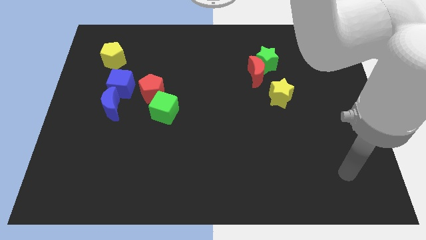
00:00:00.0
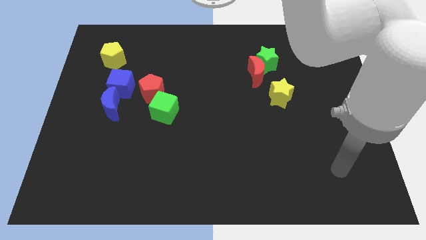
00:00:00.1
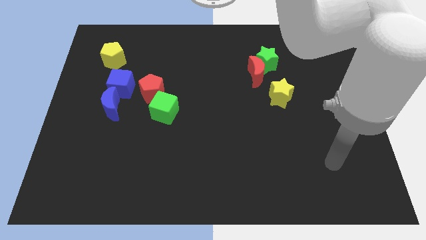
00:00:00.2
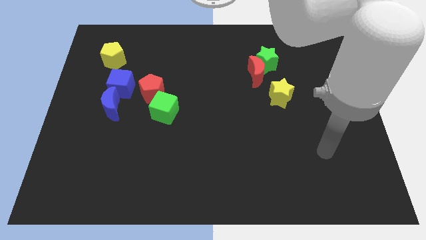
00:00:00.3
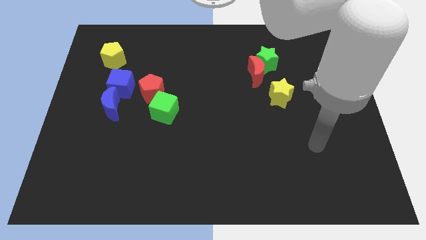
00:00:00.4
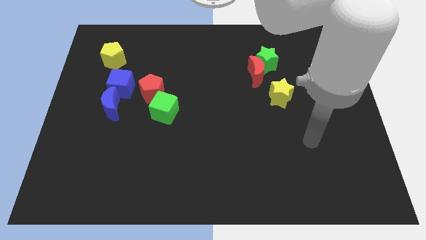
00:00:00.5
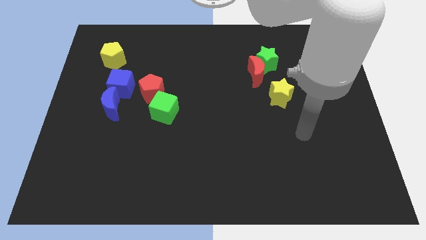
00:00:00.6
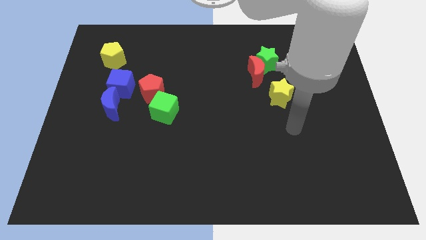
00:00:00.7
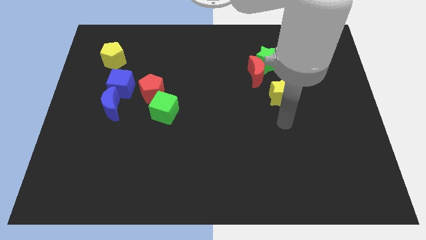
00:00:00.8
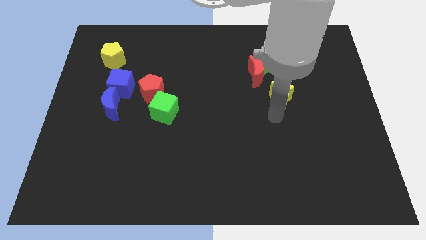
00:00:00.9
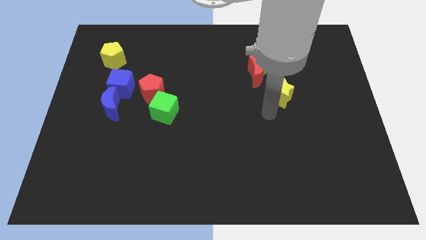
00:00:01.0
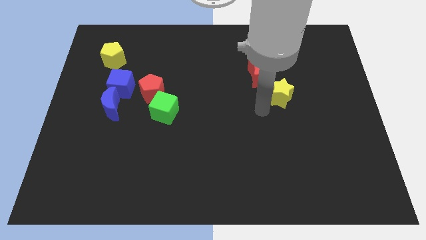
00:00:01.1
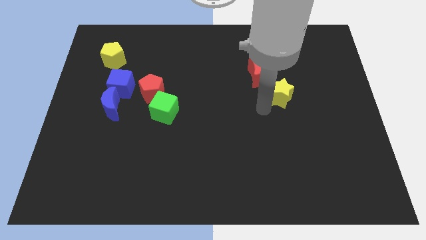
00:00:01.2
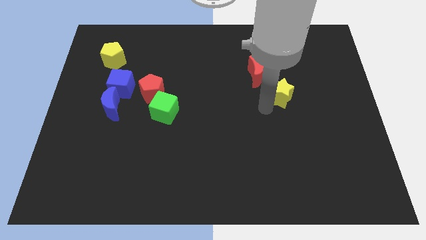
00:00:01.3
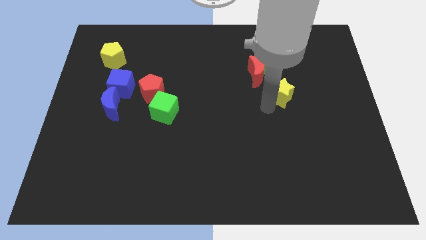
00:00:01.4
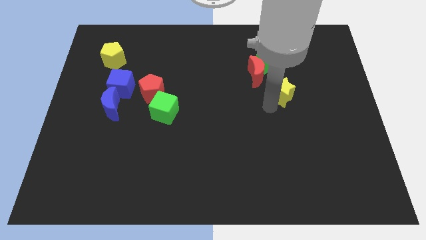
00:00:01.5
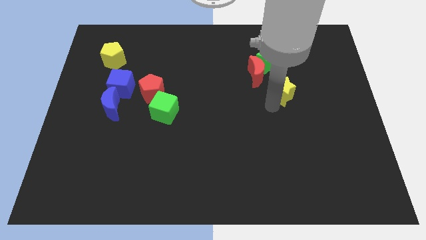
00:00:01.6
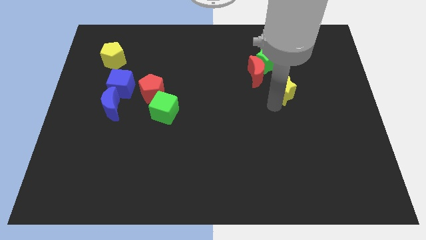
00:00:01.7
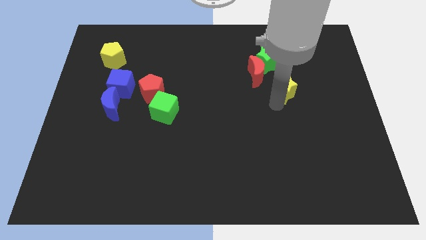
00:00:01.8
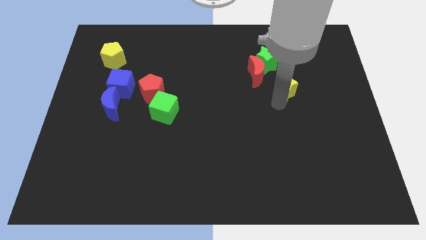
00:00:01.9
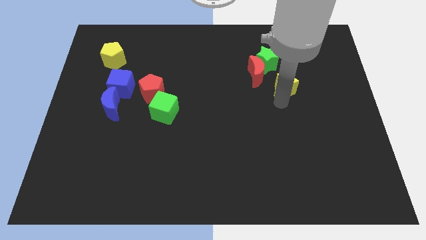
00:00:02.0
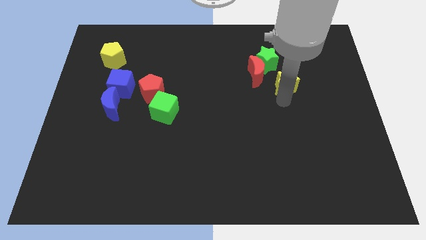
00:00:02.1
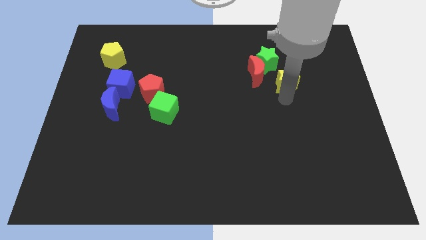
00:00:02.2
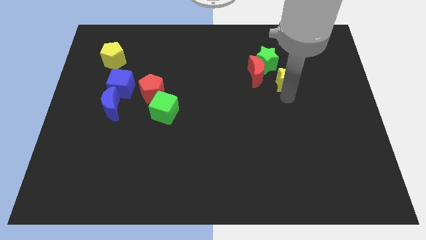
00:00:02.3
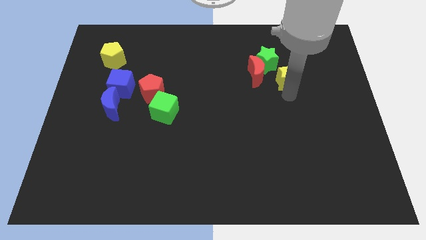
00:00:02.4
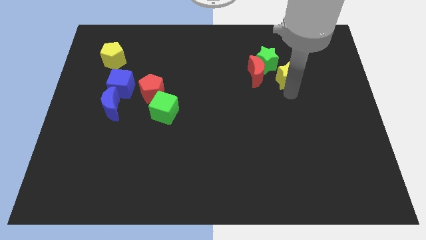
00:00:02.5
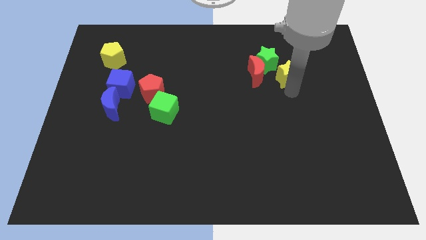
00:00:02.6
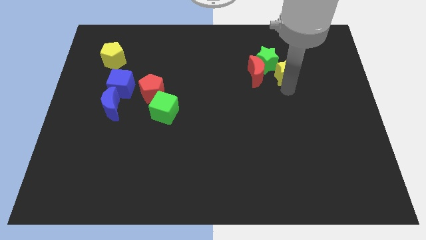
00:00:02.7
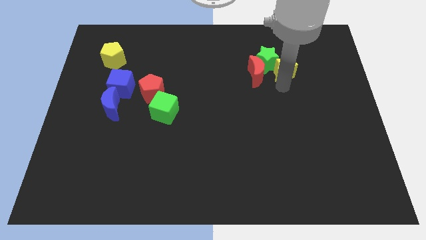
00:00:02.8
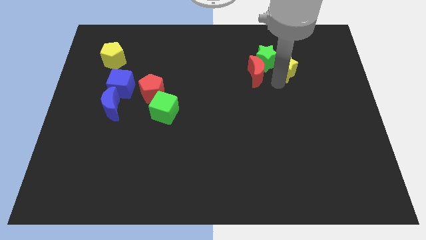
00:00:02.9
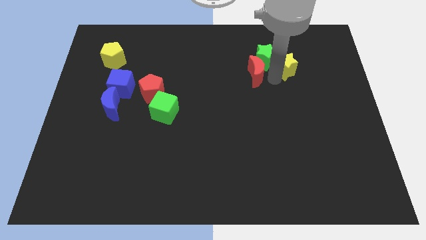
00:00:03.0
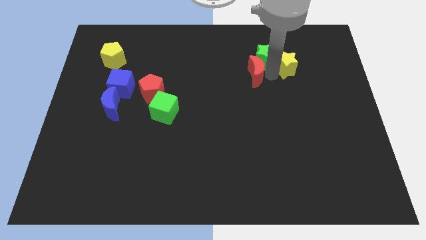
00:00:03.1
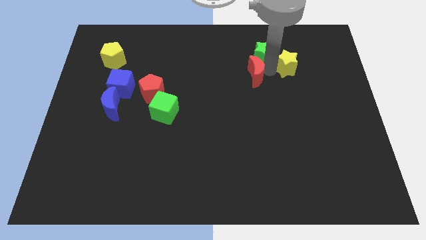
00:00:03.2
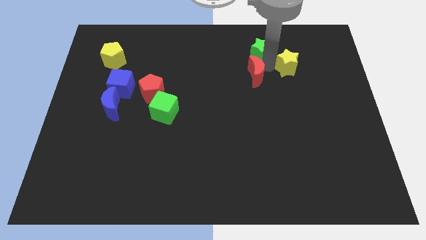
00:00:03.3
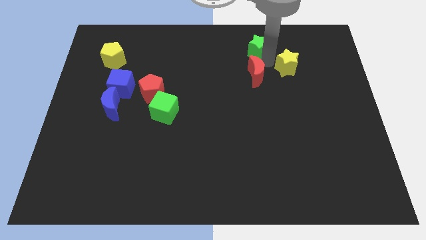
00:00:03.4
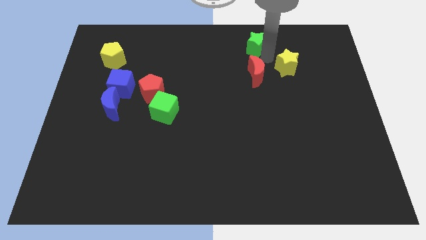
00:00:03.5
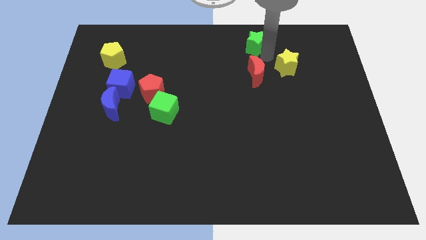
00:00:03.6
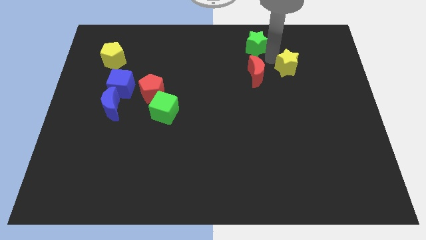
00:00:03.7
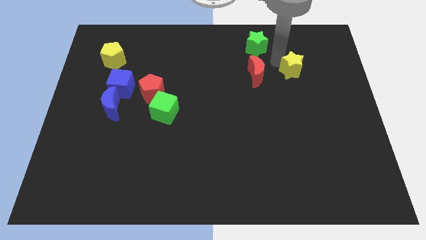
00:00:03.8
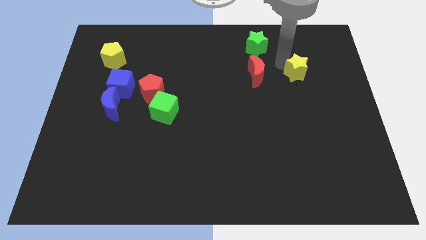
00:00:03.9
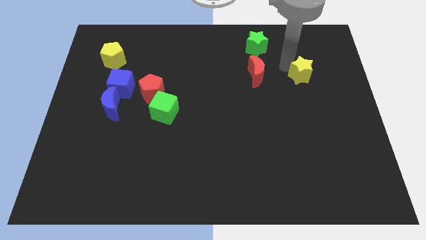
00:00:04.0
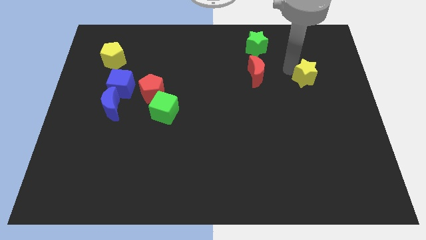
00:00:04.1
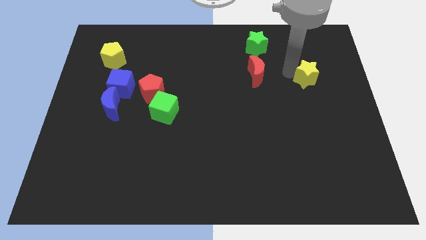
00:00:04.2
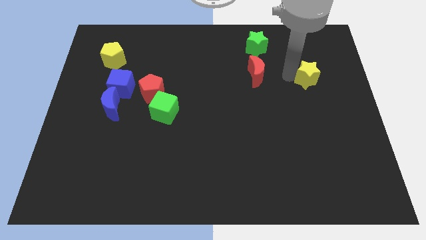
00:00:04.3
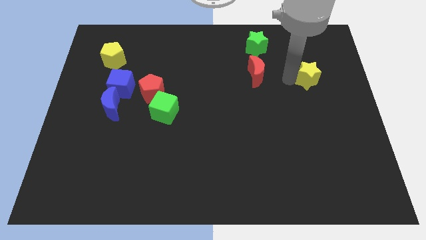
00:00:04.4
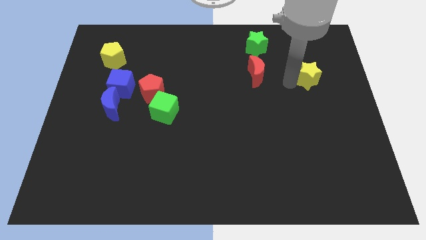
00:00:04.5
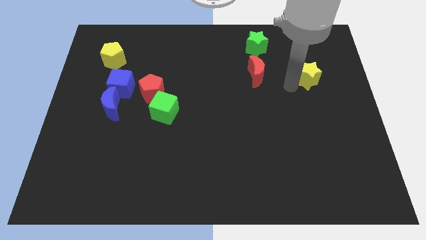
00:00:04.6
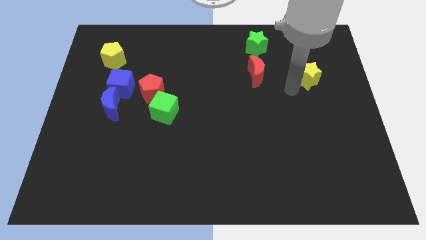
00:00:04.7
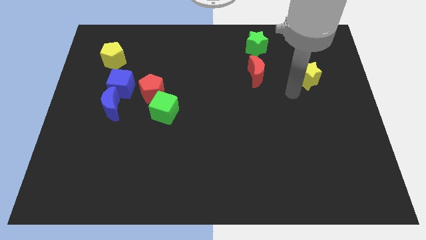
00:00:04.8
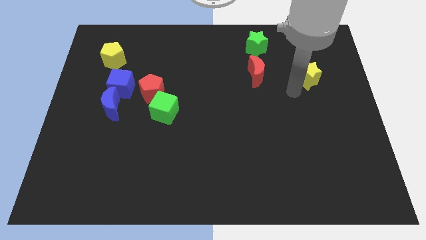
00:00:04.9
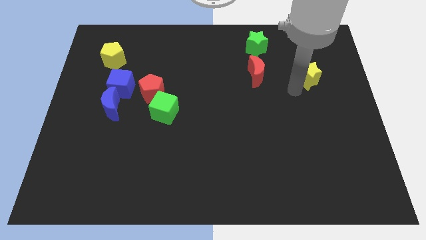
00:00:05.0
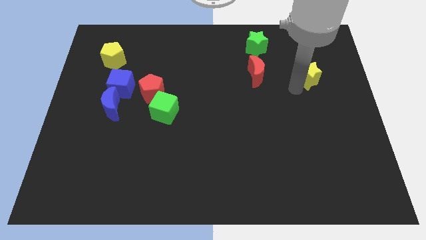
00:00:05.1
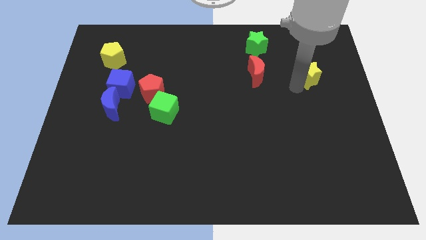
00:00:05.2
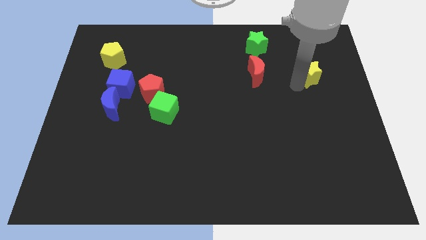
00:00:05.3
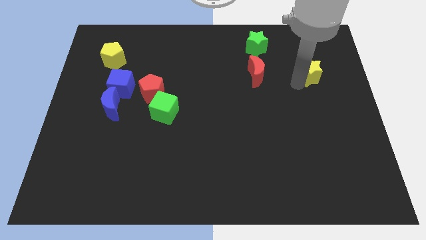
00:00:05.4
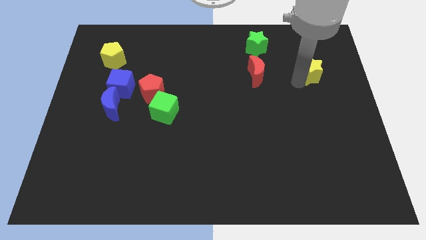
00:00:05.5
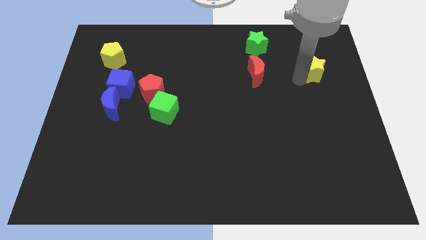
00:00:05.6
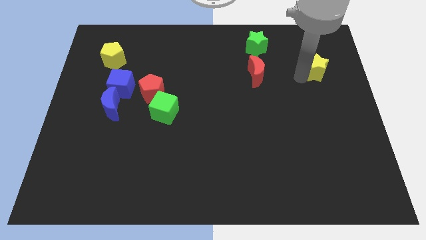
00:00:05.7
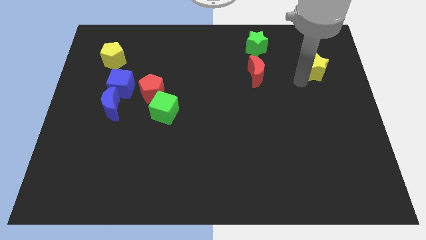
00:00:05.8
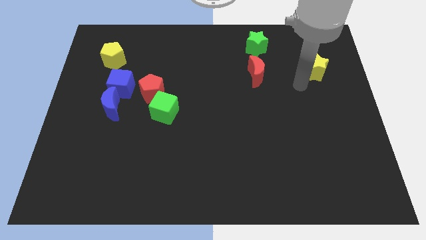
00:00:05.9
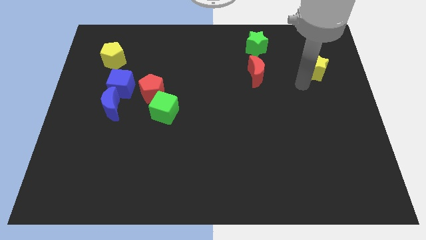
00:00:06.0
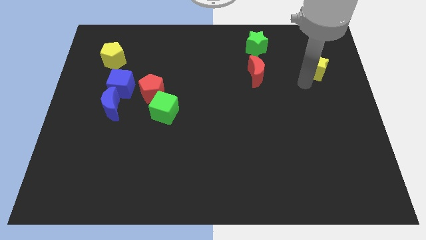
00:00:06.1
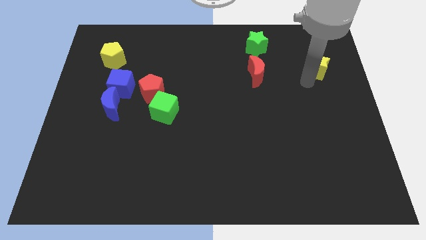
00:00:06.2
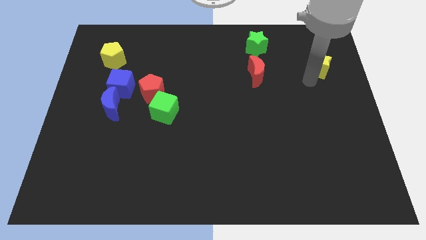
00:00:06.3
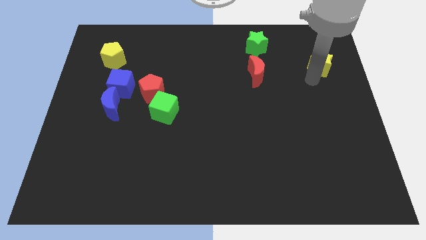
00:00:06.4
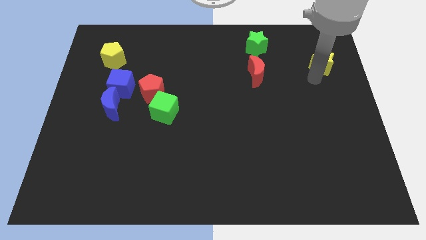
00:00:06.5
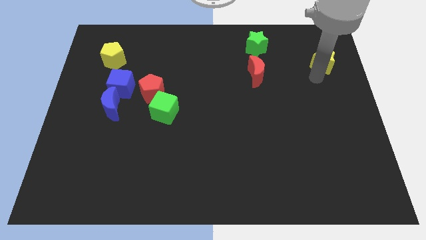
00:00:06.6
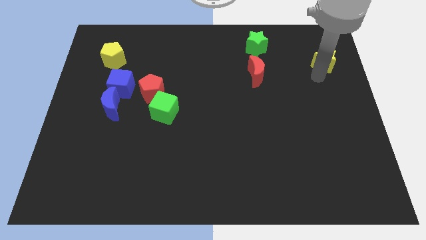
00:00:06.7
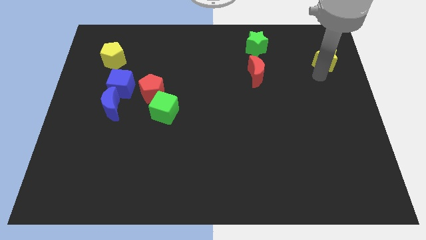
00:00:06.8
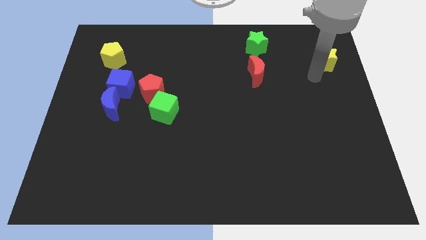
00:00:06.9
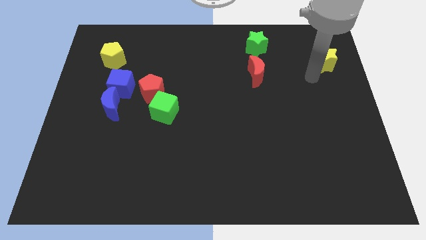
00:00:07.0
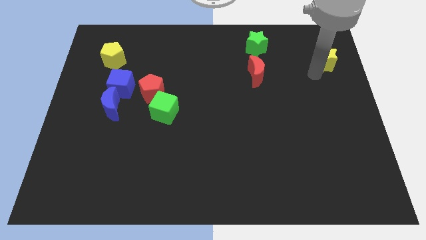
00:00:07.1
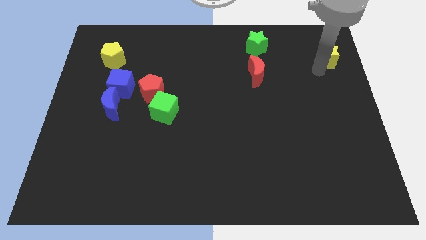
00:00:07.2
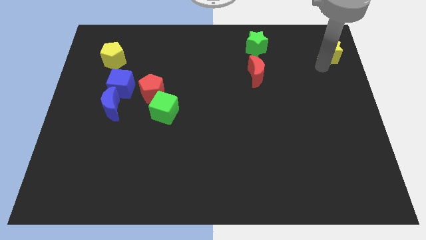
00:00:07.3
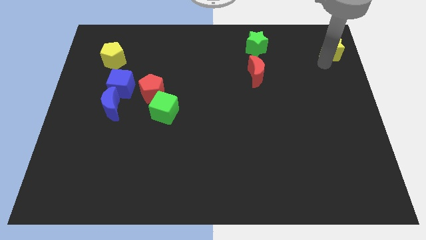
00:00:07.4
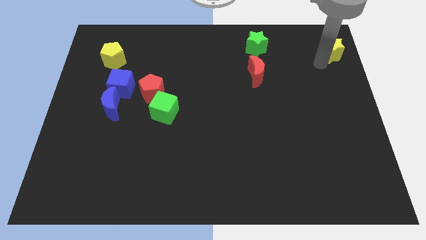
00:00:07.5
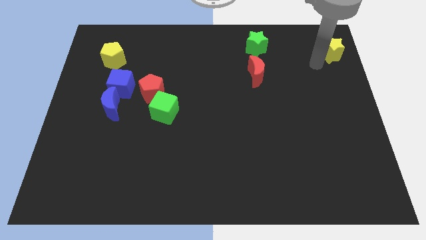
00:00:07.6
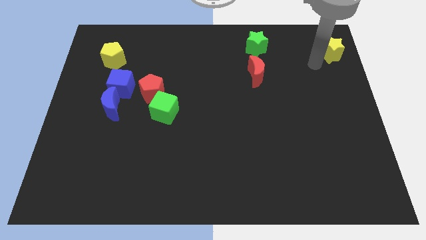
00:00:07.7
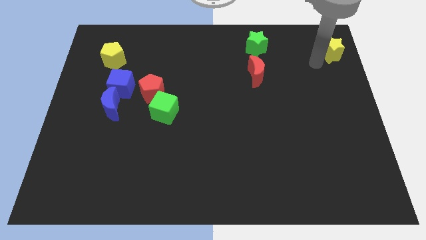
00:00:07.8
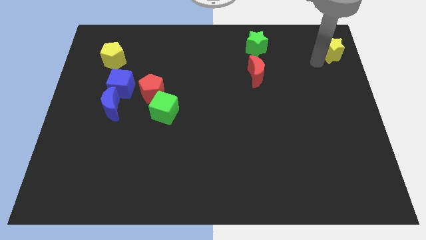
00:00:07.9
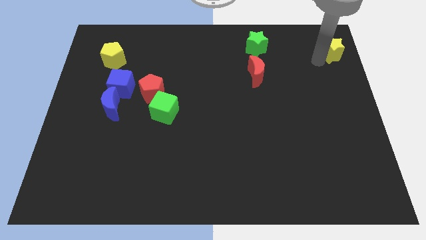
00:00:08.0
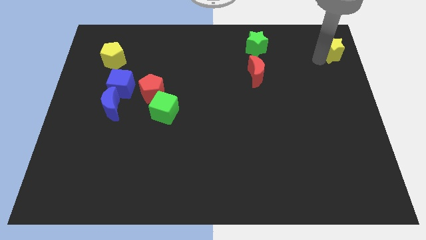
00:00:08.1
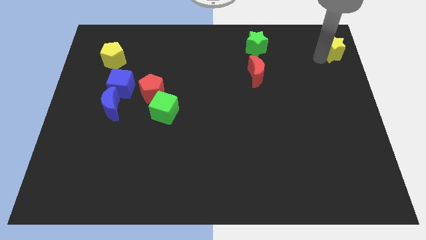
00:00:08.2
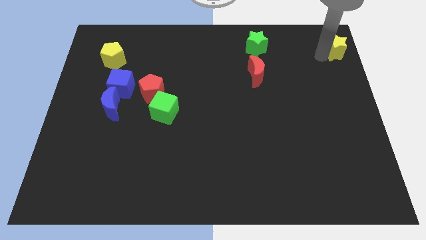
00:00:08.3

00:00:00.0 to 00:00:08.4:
move the yellow star to the top right
